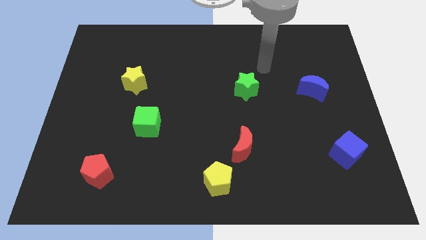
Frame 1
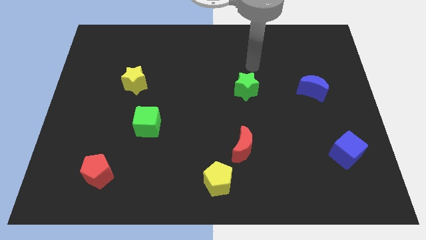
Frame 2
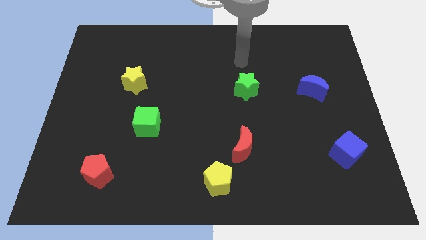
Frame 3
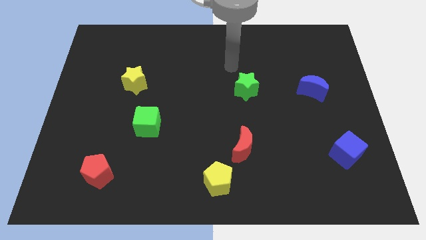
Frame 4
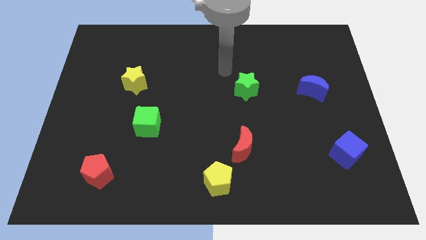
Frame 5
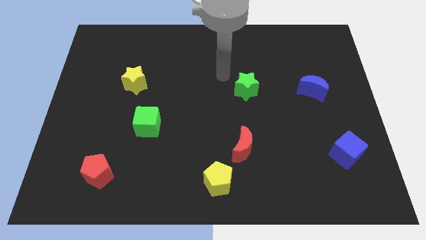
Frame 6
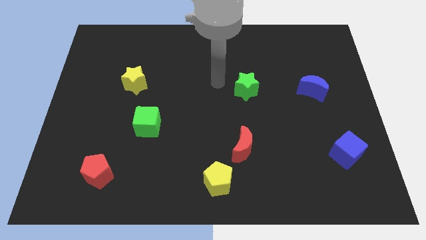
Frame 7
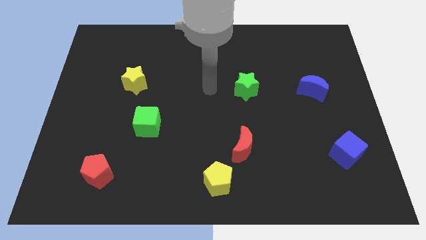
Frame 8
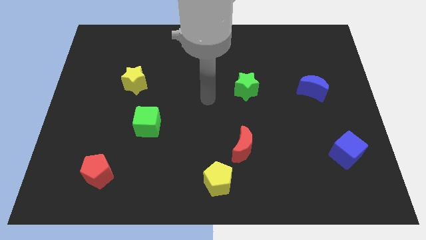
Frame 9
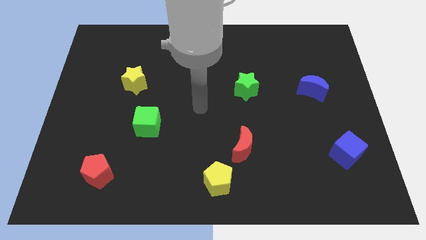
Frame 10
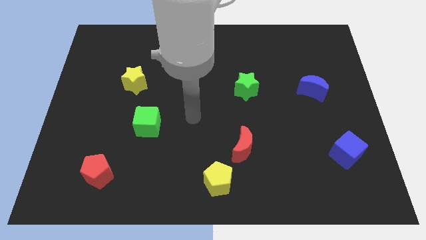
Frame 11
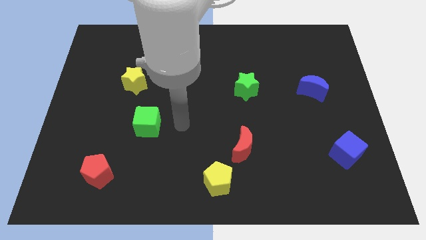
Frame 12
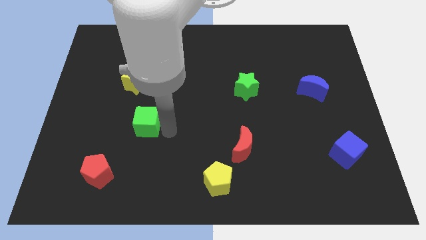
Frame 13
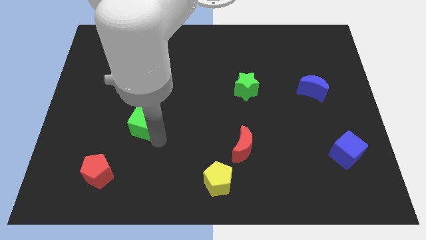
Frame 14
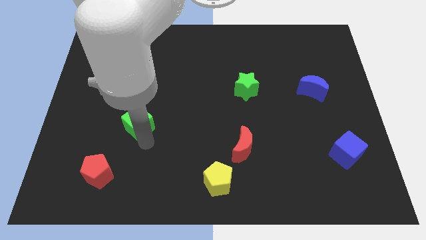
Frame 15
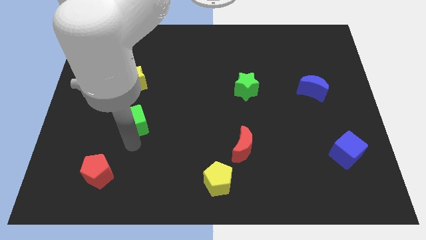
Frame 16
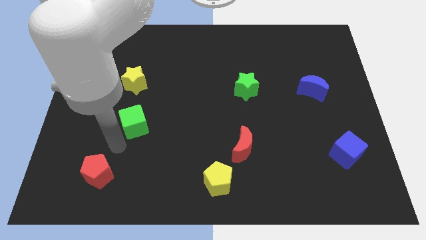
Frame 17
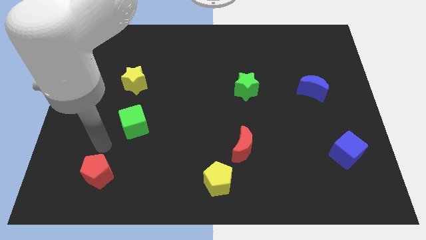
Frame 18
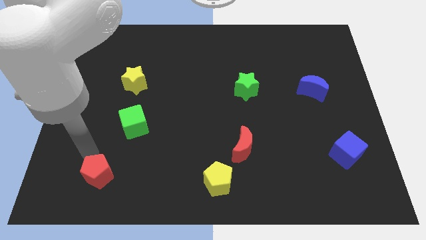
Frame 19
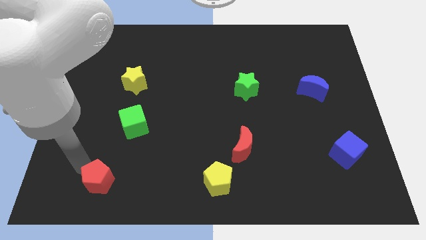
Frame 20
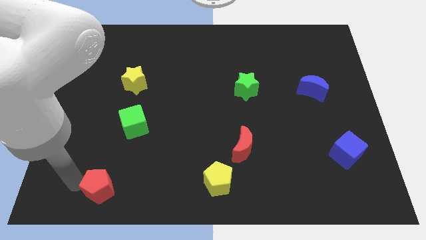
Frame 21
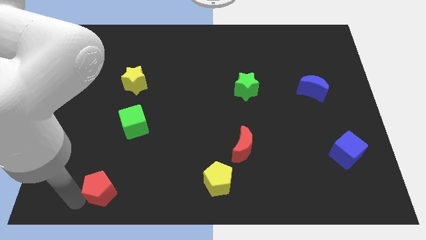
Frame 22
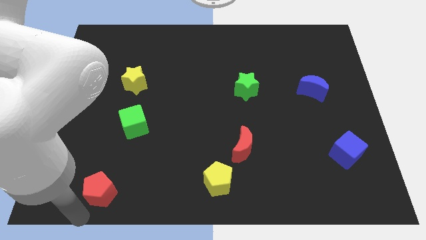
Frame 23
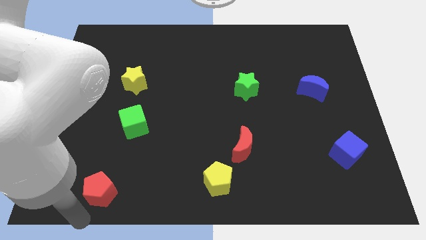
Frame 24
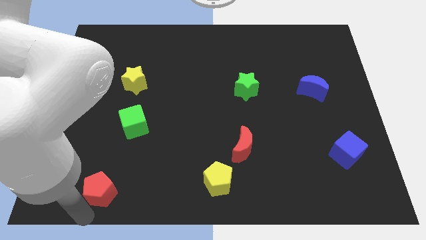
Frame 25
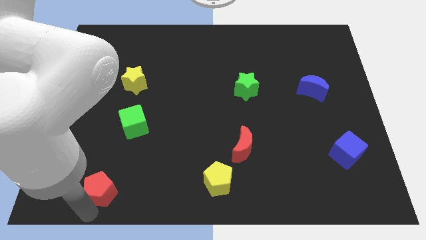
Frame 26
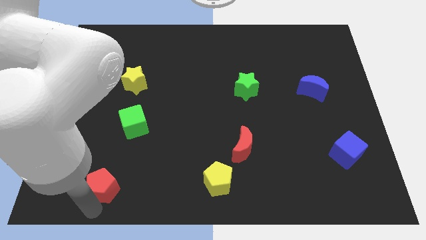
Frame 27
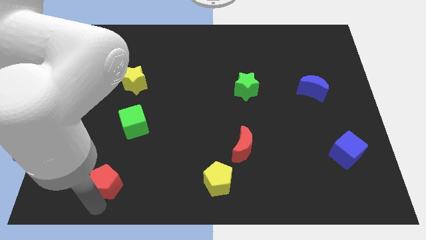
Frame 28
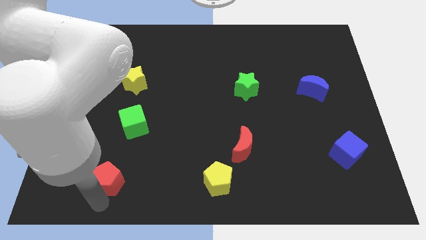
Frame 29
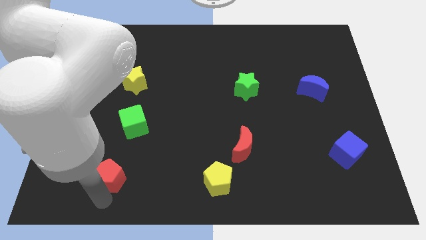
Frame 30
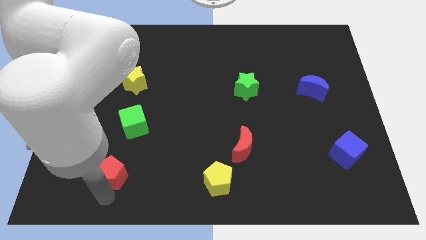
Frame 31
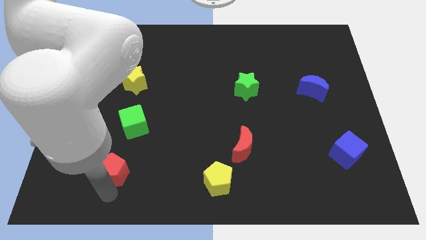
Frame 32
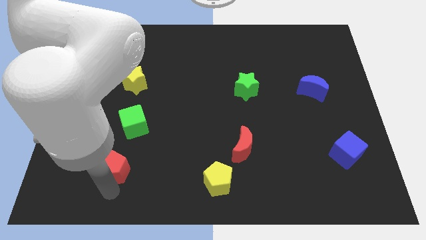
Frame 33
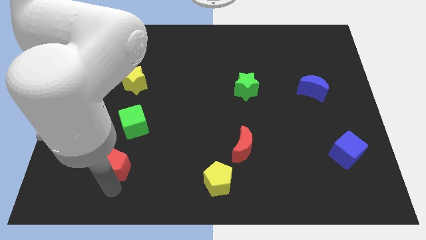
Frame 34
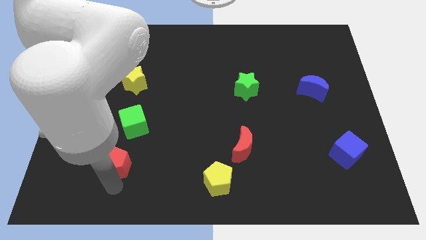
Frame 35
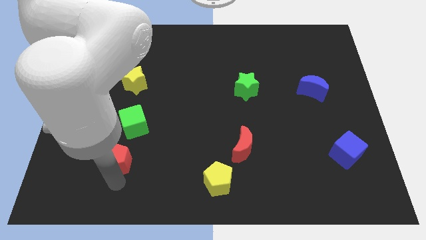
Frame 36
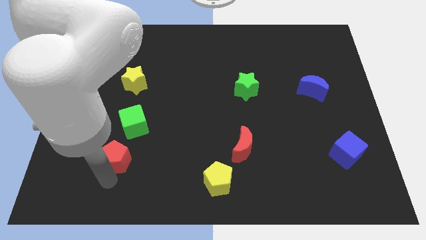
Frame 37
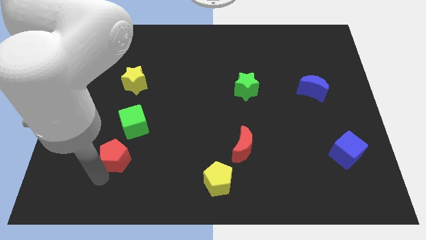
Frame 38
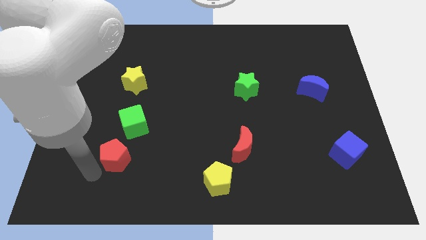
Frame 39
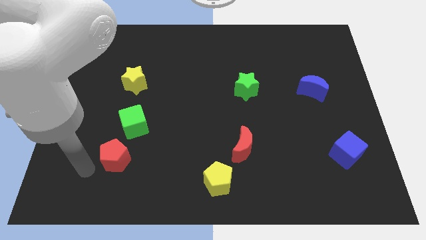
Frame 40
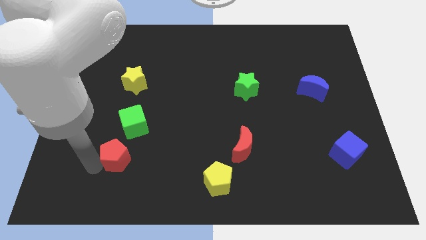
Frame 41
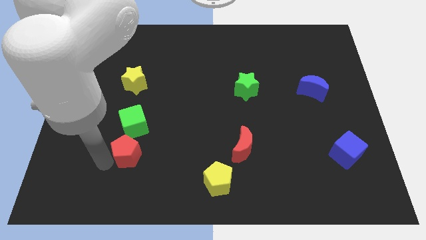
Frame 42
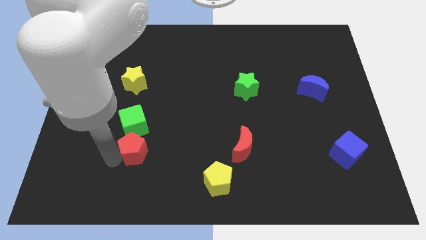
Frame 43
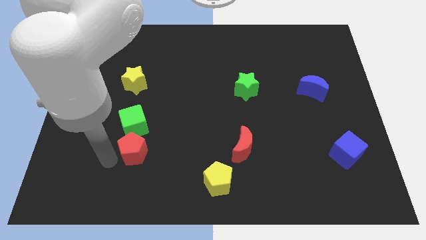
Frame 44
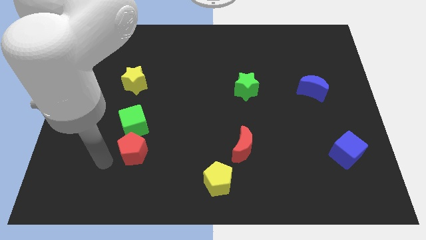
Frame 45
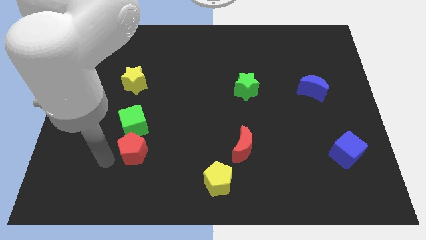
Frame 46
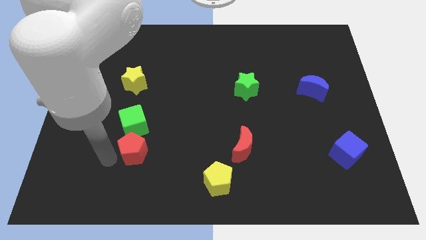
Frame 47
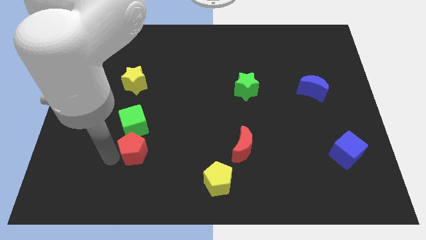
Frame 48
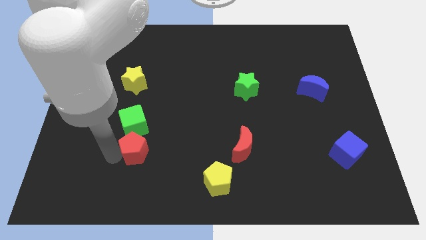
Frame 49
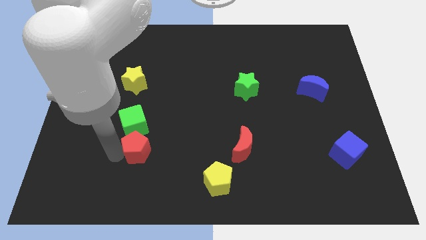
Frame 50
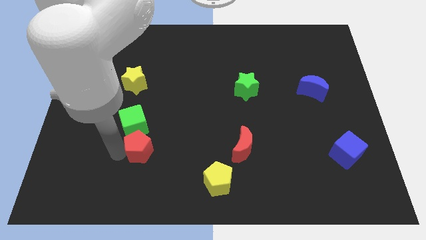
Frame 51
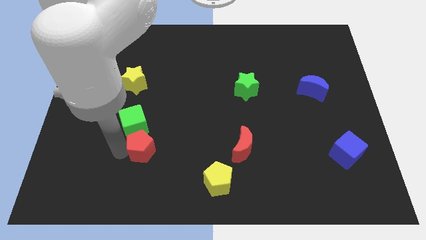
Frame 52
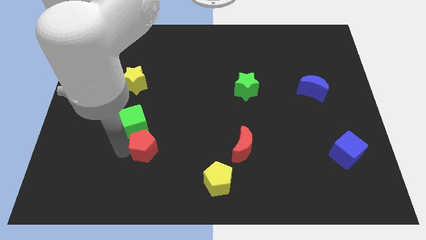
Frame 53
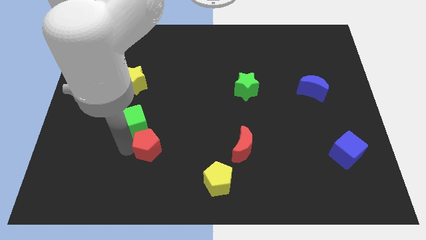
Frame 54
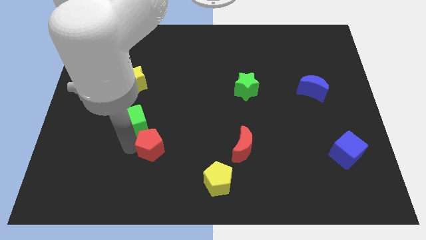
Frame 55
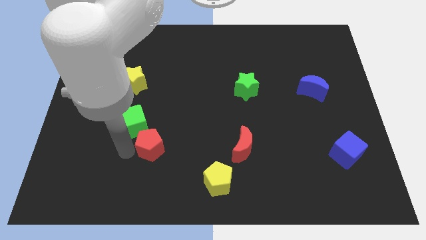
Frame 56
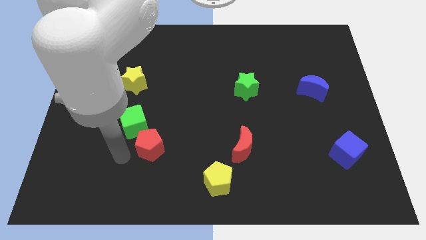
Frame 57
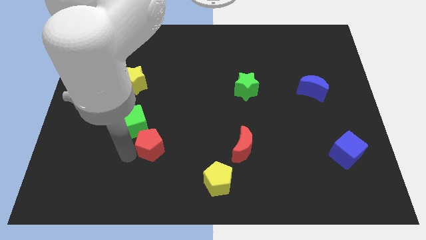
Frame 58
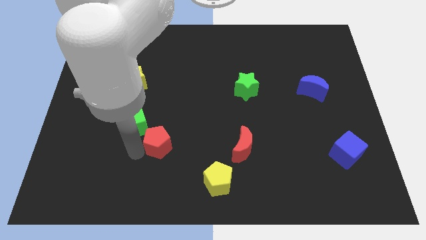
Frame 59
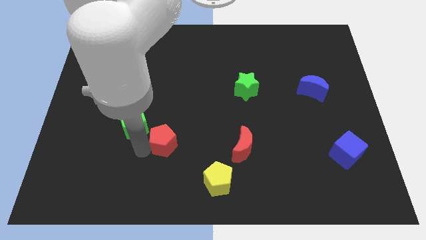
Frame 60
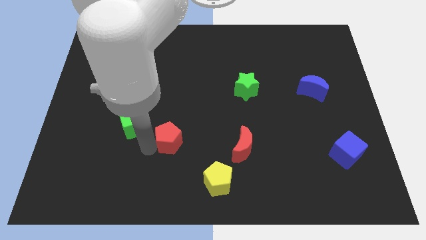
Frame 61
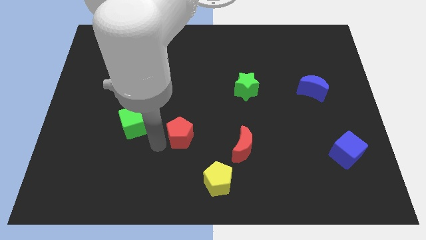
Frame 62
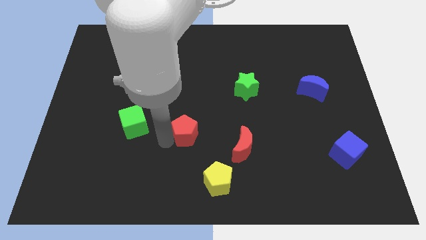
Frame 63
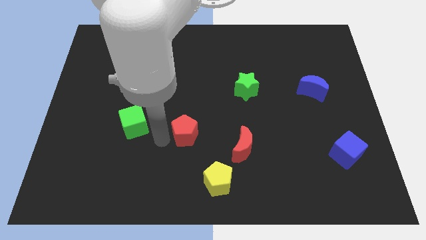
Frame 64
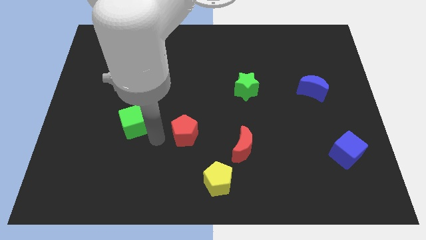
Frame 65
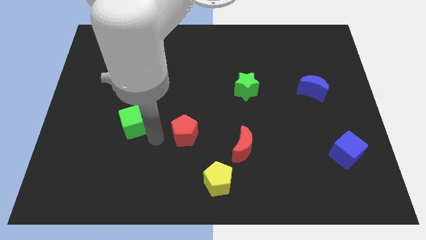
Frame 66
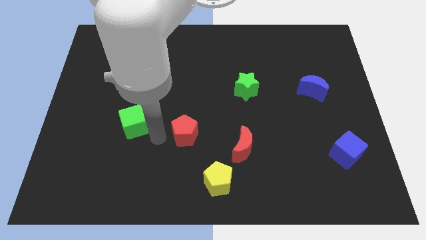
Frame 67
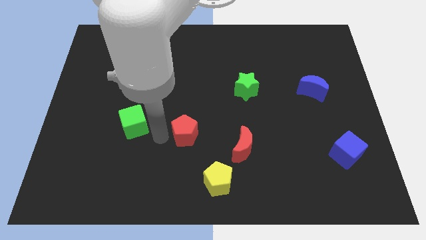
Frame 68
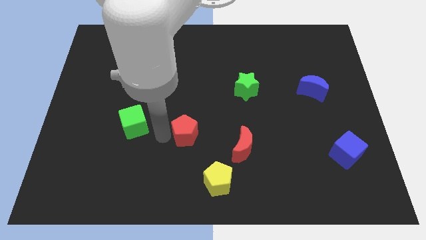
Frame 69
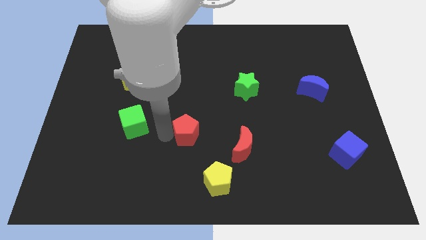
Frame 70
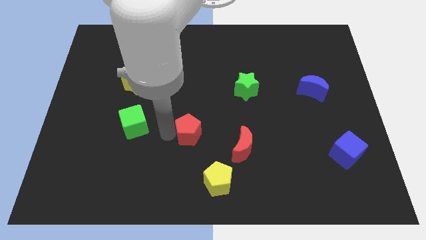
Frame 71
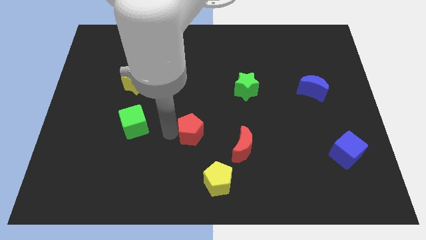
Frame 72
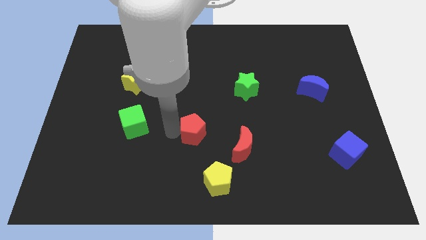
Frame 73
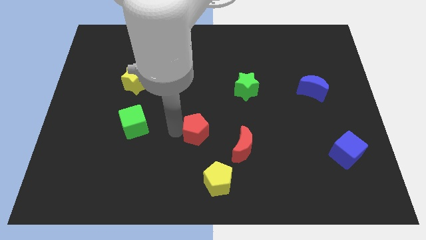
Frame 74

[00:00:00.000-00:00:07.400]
slide the red pentagon to the top left side of the red moon

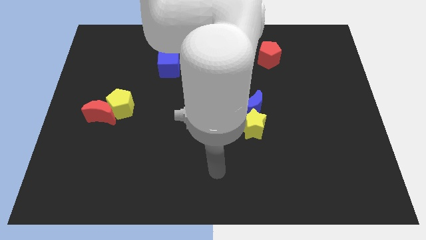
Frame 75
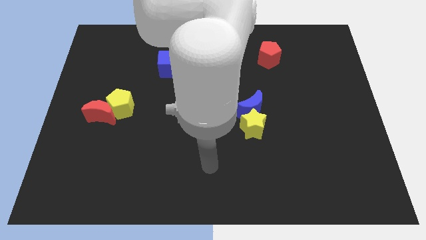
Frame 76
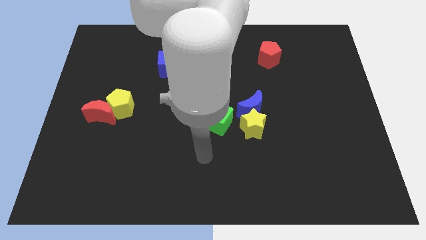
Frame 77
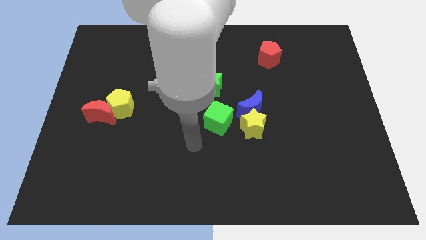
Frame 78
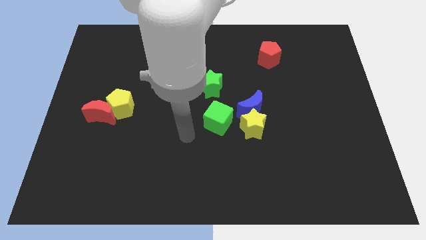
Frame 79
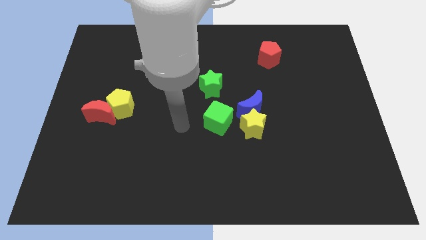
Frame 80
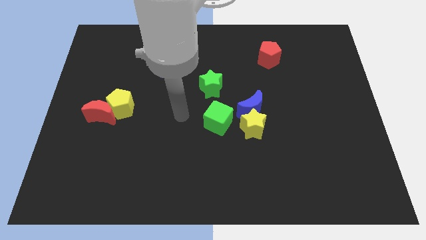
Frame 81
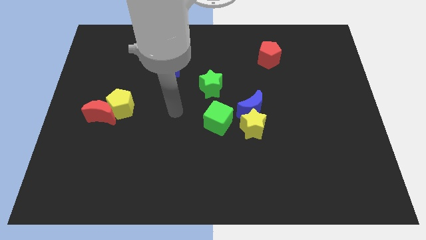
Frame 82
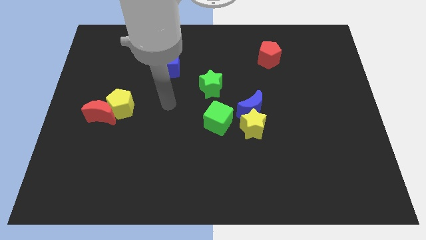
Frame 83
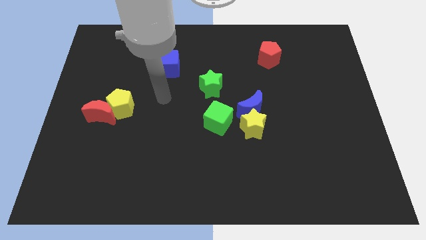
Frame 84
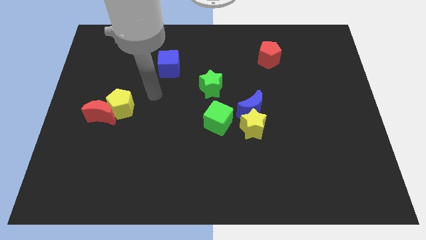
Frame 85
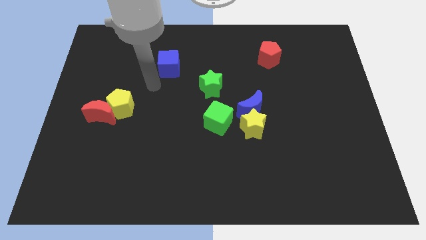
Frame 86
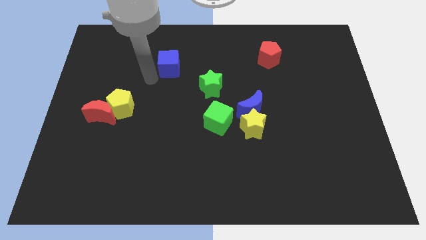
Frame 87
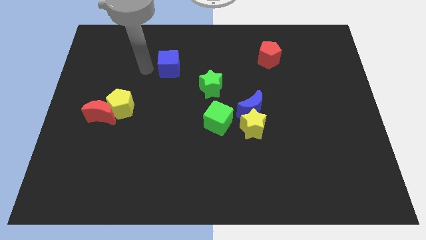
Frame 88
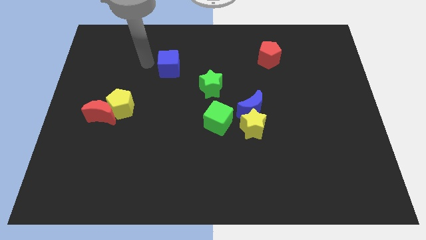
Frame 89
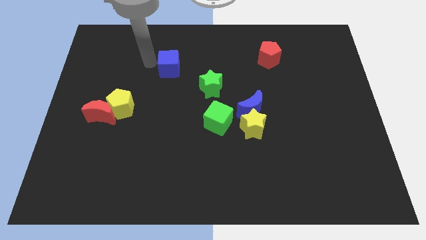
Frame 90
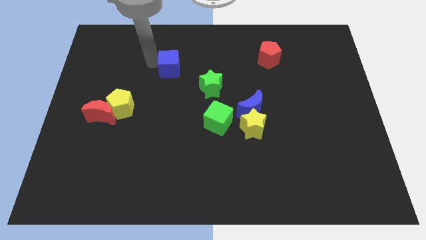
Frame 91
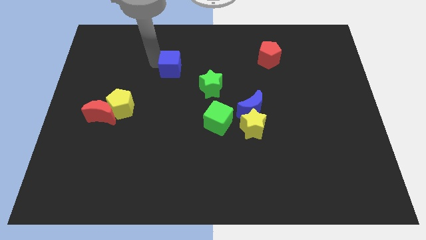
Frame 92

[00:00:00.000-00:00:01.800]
move the blue cube to the top left side of the green star
